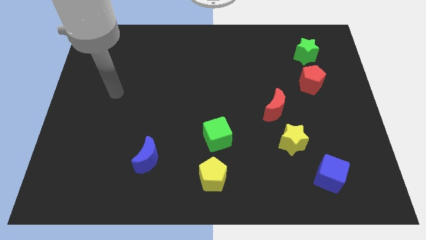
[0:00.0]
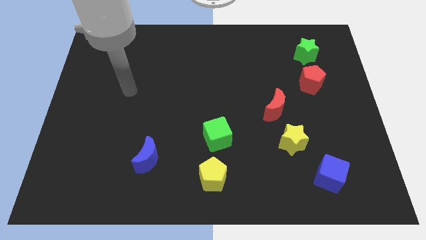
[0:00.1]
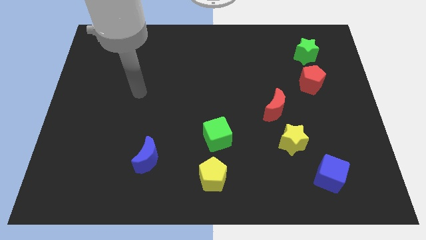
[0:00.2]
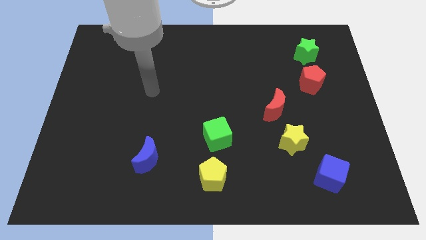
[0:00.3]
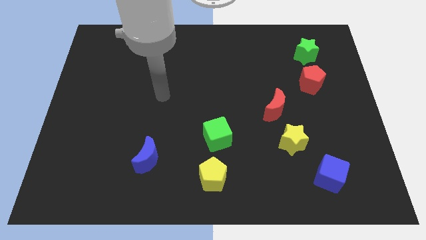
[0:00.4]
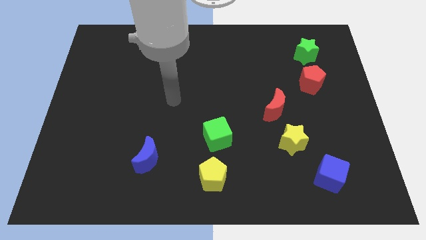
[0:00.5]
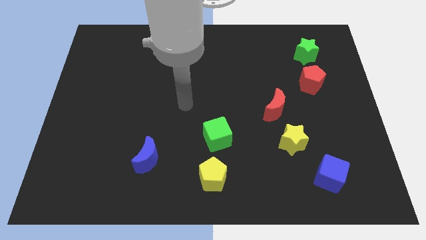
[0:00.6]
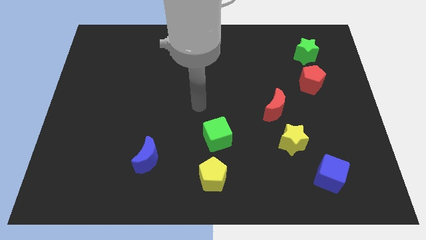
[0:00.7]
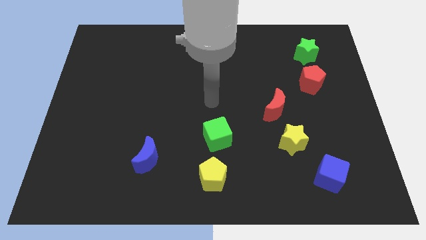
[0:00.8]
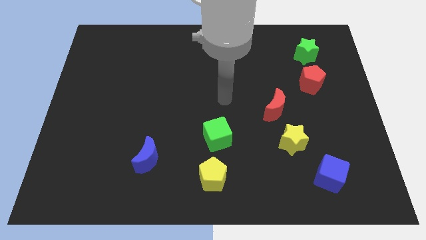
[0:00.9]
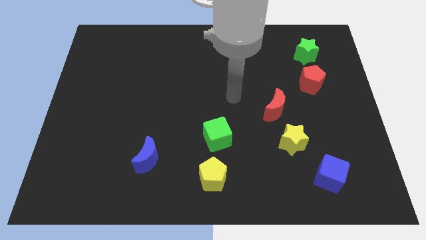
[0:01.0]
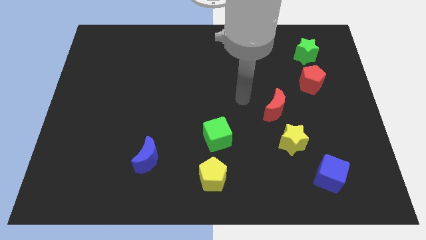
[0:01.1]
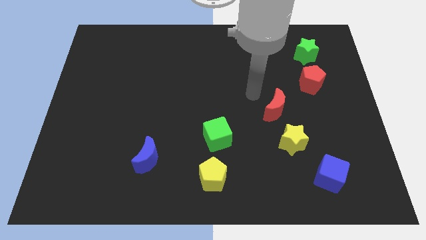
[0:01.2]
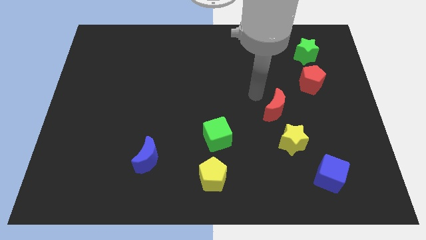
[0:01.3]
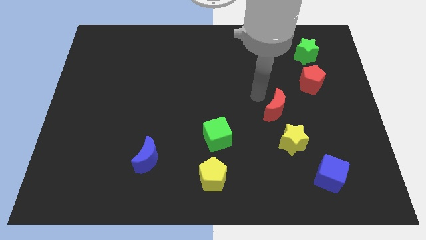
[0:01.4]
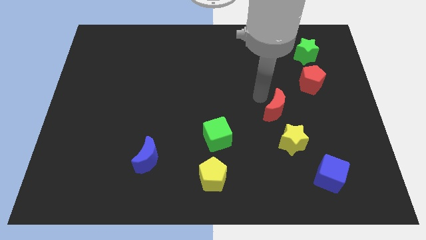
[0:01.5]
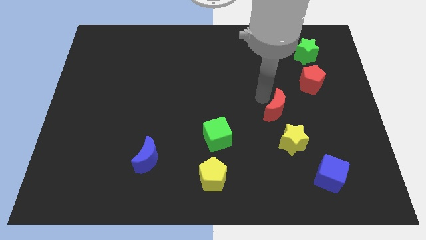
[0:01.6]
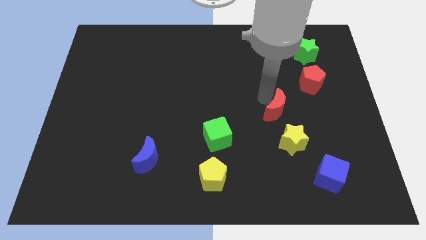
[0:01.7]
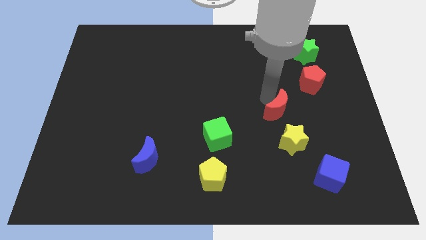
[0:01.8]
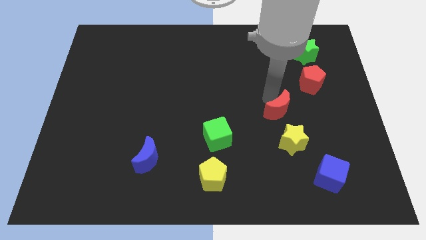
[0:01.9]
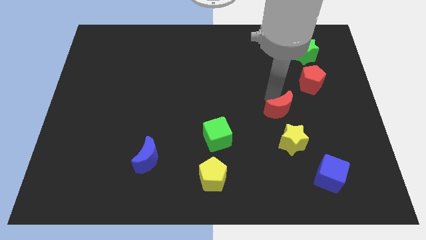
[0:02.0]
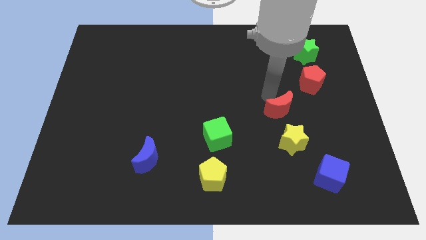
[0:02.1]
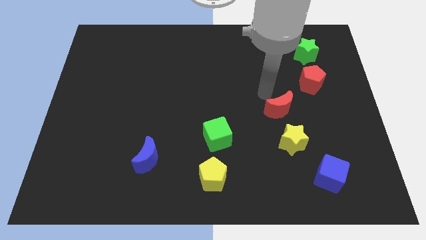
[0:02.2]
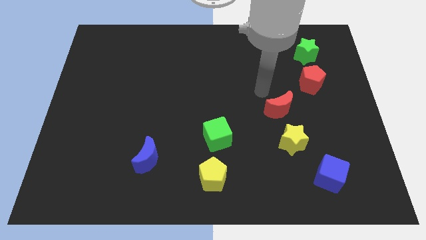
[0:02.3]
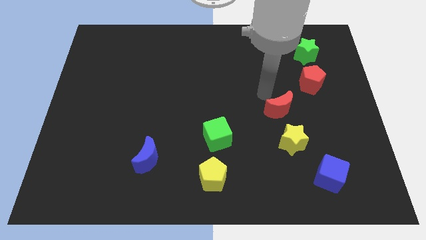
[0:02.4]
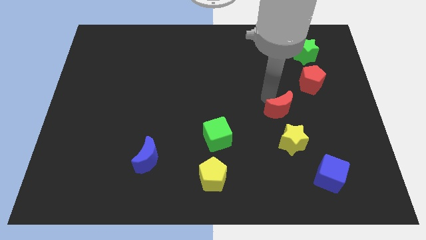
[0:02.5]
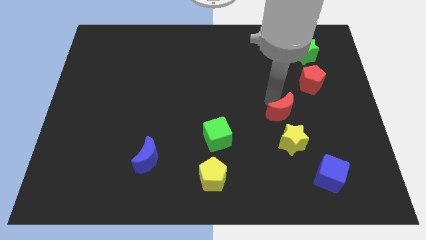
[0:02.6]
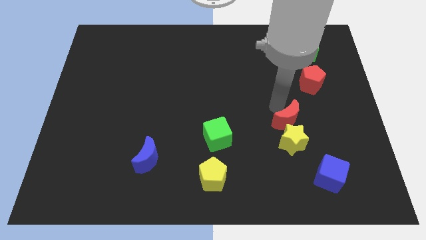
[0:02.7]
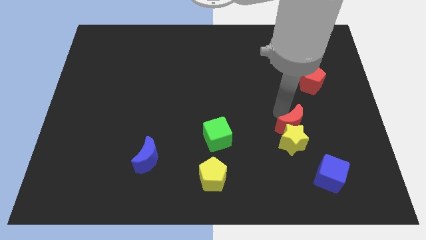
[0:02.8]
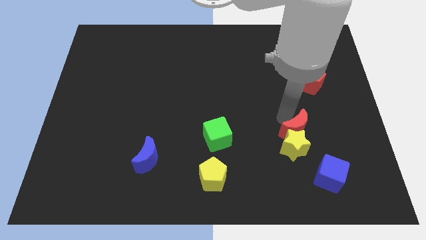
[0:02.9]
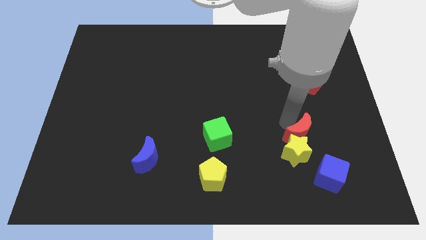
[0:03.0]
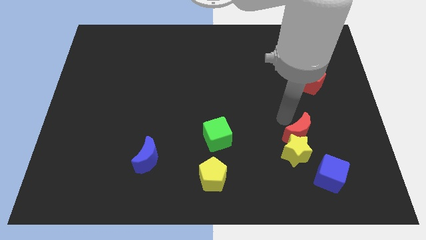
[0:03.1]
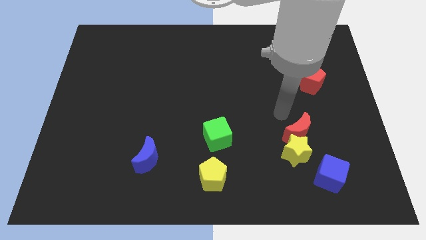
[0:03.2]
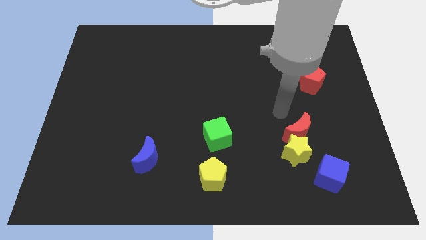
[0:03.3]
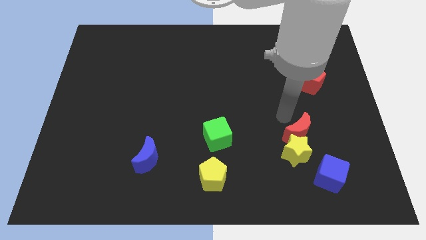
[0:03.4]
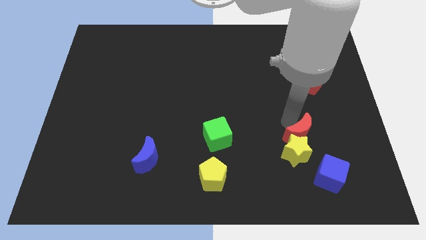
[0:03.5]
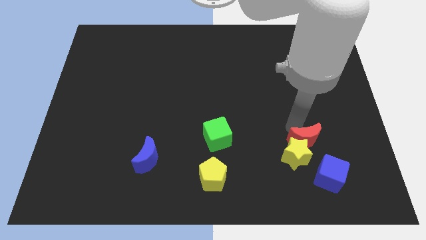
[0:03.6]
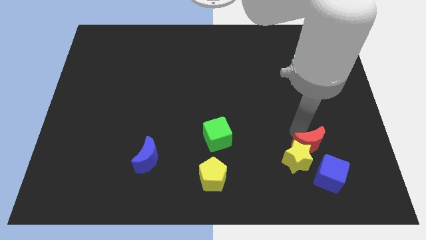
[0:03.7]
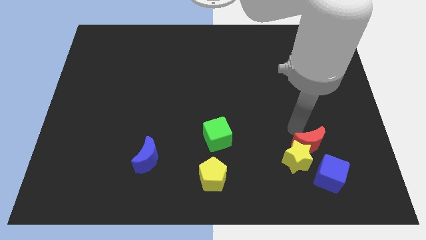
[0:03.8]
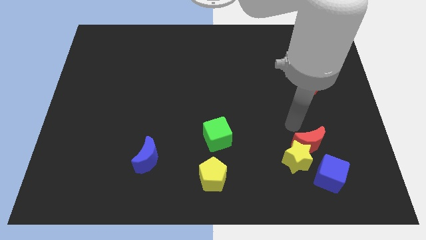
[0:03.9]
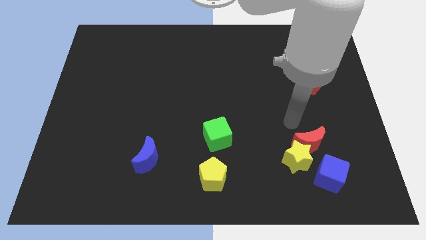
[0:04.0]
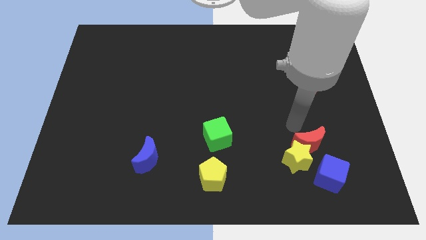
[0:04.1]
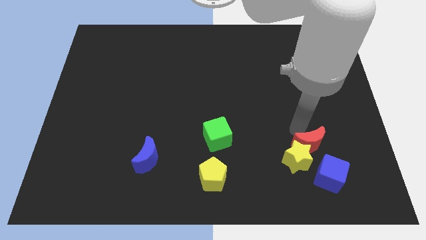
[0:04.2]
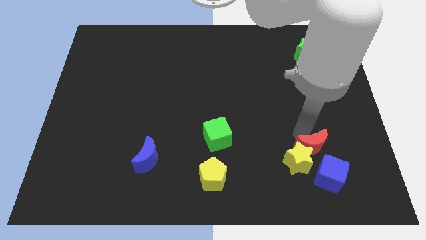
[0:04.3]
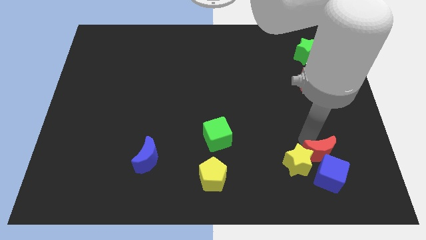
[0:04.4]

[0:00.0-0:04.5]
push the red moon next to the blue cube

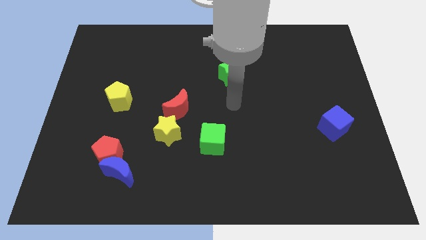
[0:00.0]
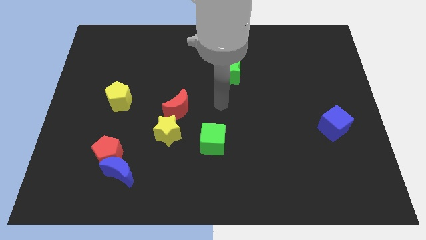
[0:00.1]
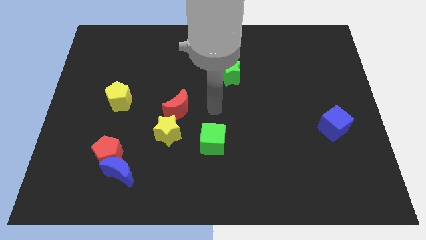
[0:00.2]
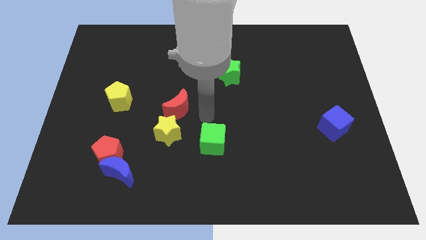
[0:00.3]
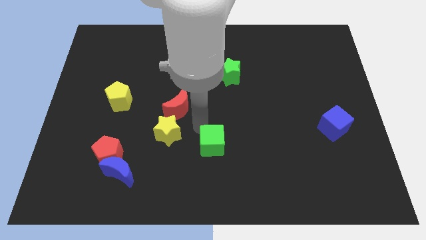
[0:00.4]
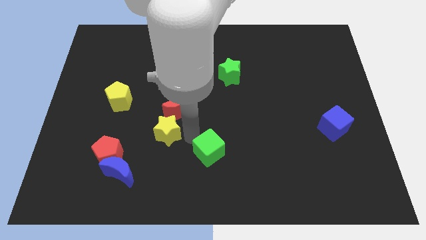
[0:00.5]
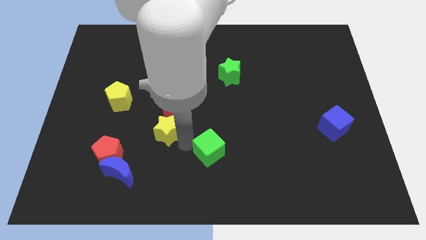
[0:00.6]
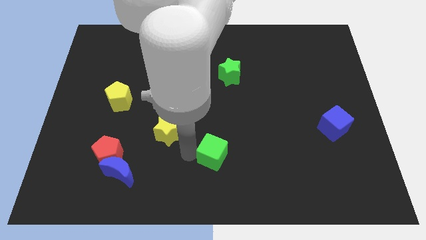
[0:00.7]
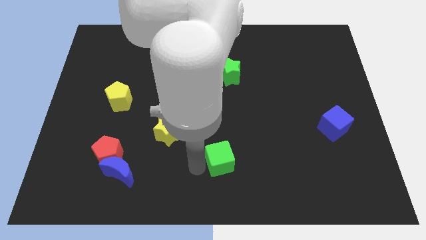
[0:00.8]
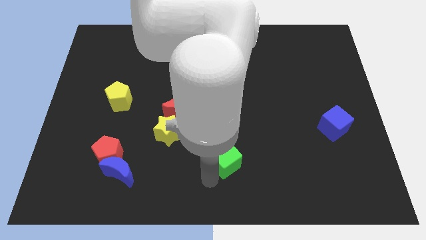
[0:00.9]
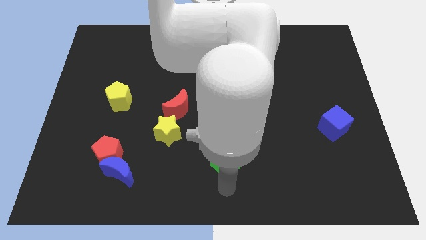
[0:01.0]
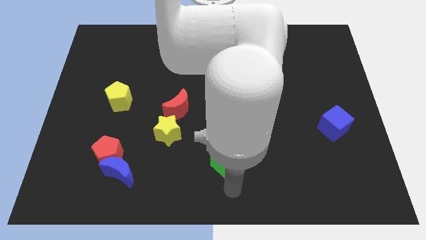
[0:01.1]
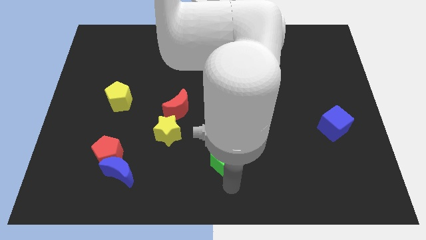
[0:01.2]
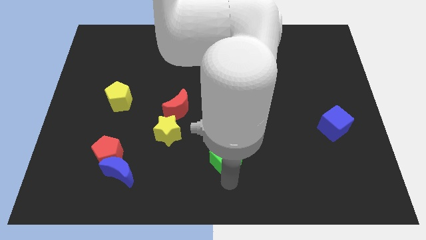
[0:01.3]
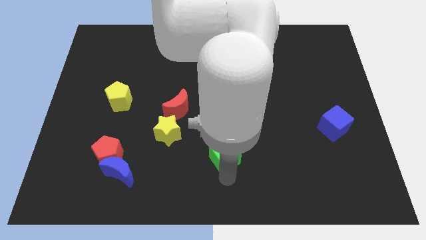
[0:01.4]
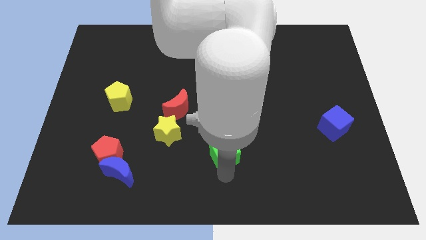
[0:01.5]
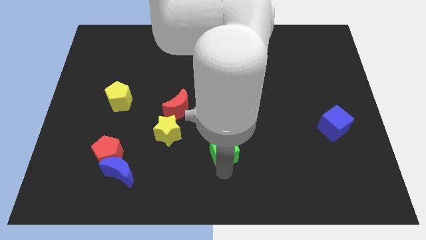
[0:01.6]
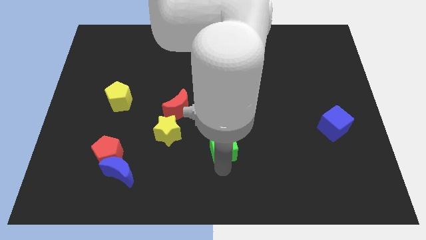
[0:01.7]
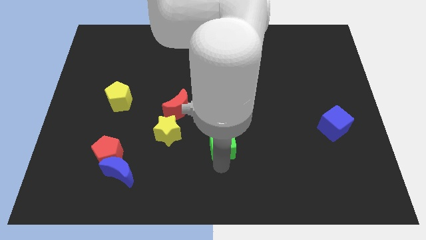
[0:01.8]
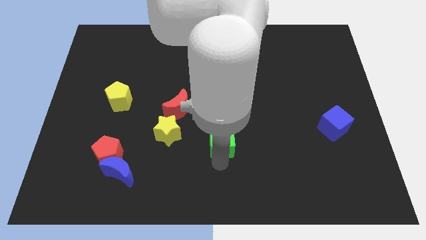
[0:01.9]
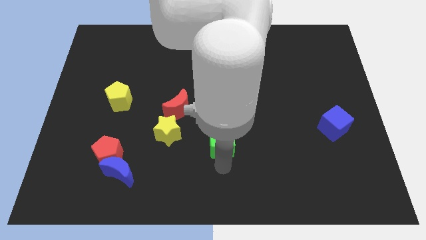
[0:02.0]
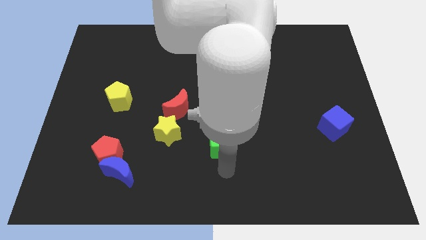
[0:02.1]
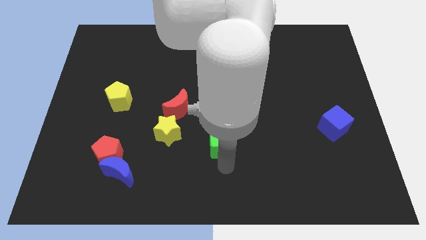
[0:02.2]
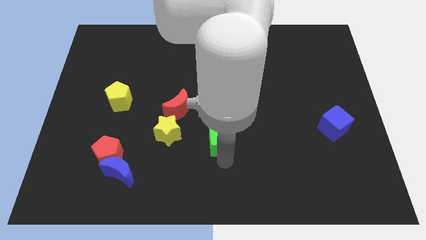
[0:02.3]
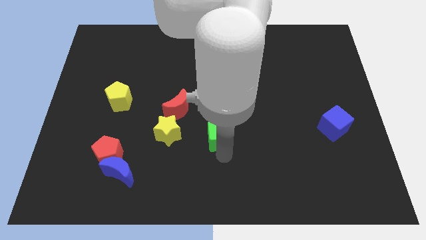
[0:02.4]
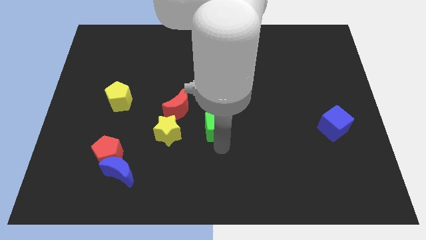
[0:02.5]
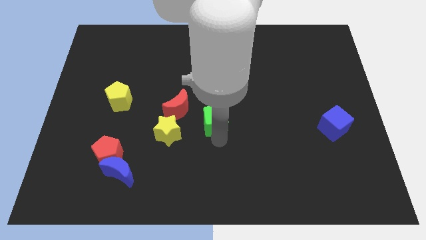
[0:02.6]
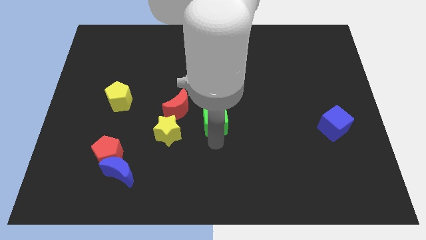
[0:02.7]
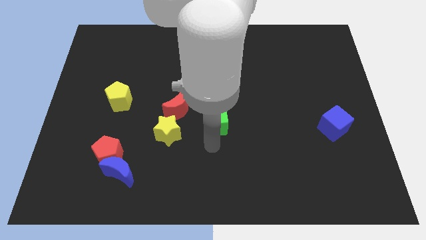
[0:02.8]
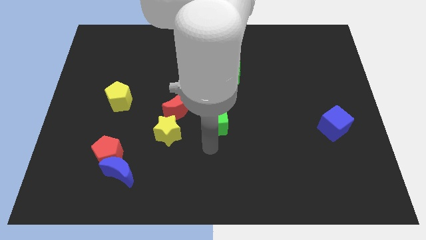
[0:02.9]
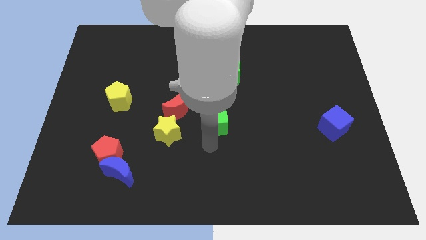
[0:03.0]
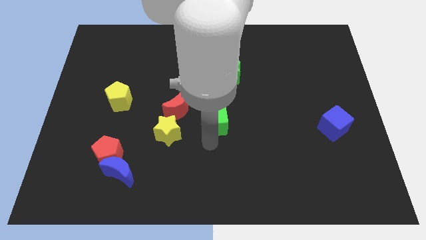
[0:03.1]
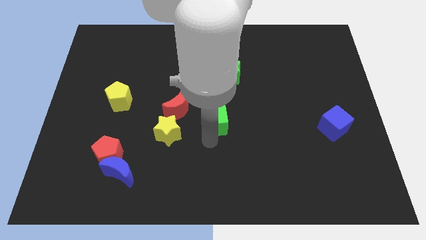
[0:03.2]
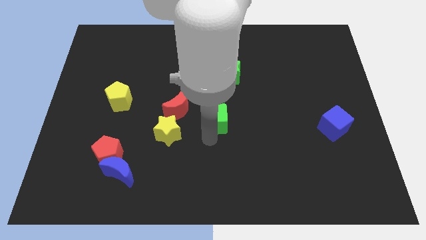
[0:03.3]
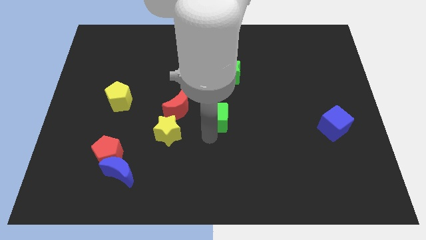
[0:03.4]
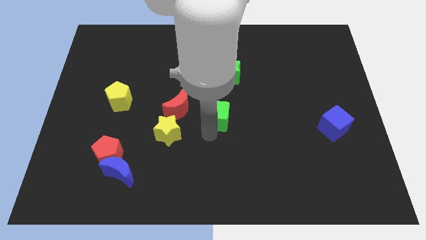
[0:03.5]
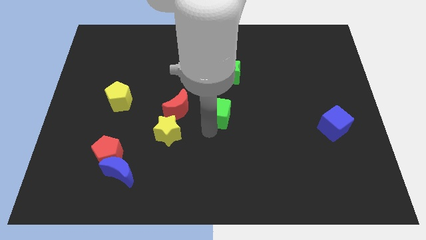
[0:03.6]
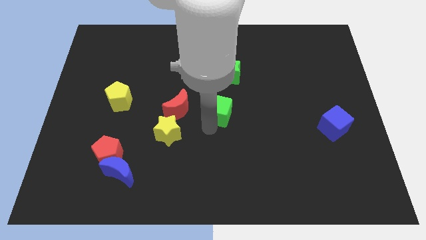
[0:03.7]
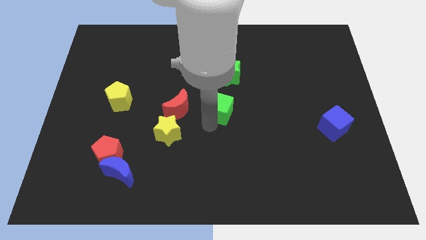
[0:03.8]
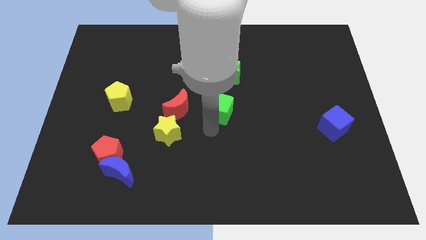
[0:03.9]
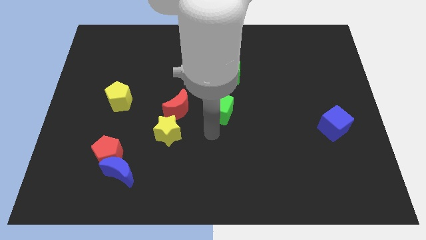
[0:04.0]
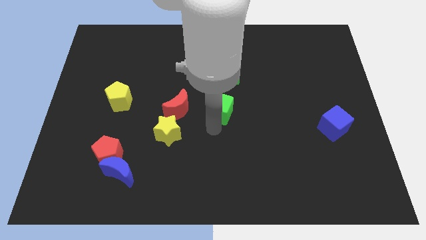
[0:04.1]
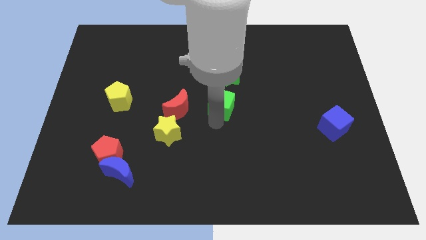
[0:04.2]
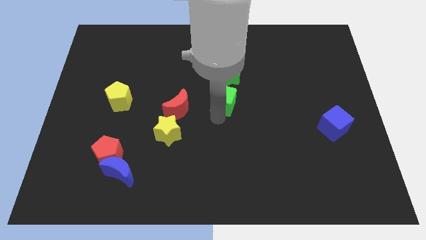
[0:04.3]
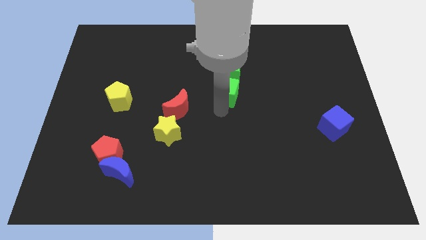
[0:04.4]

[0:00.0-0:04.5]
slide the green cube towards the green star
